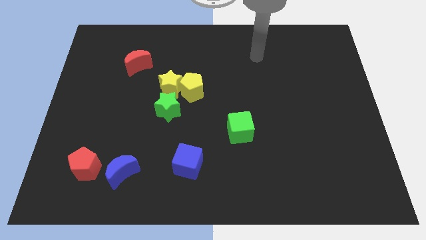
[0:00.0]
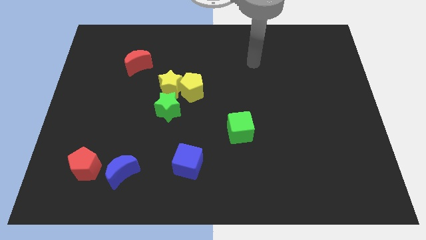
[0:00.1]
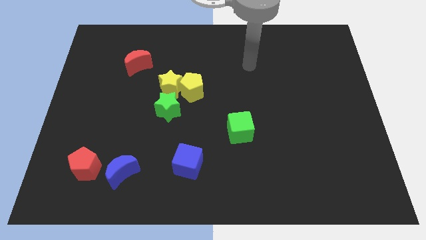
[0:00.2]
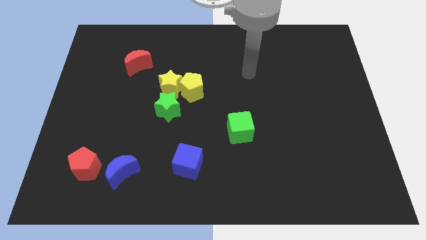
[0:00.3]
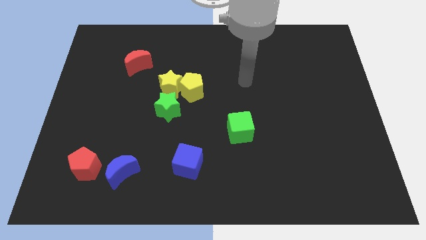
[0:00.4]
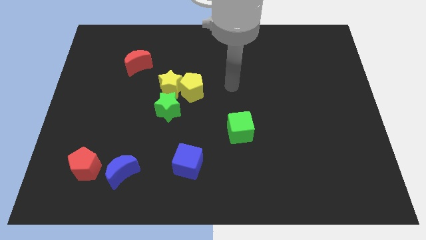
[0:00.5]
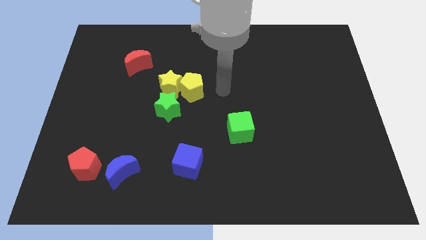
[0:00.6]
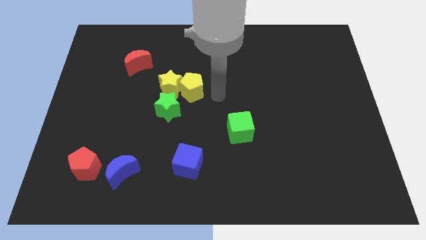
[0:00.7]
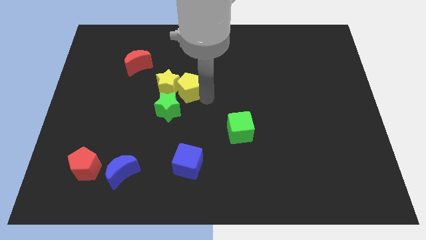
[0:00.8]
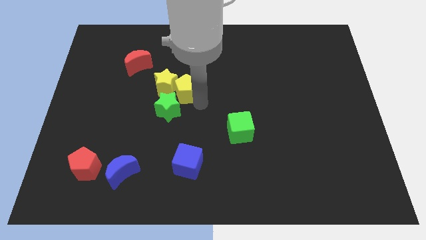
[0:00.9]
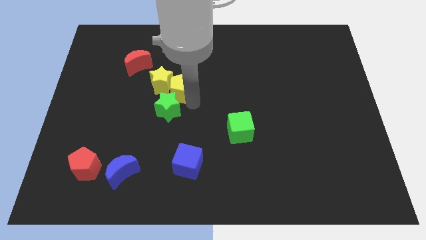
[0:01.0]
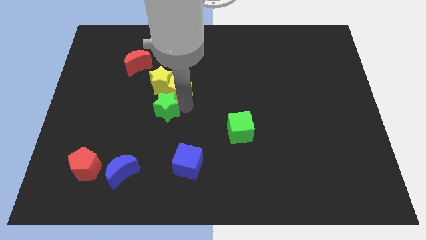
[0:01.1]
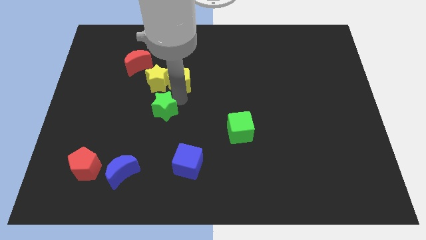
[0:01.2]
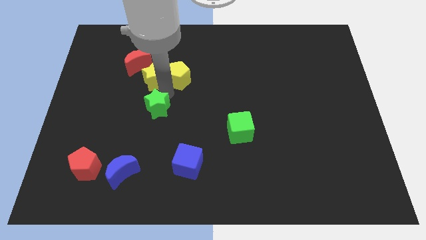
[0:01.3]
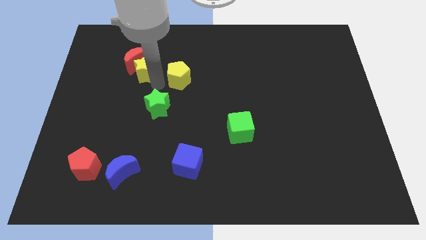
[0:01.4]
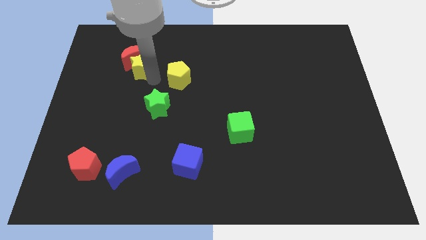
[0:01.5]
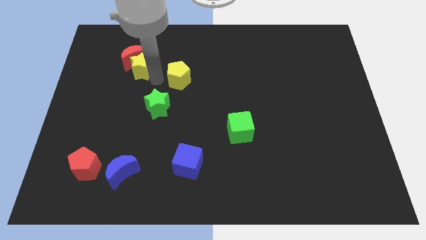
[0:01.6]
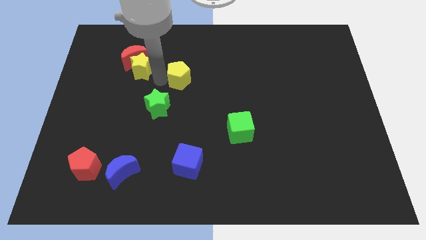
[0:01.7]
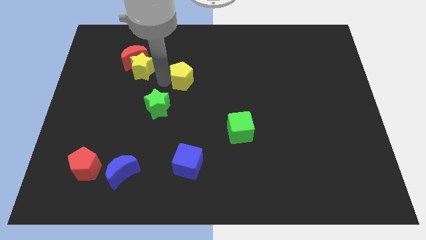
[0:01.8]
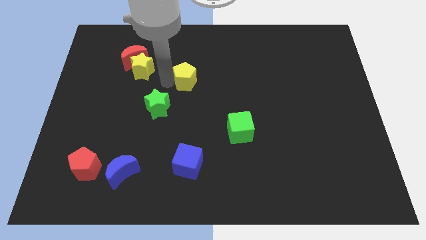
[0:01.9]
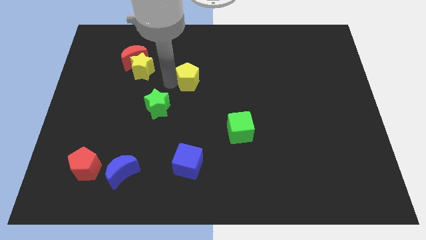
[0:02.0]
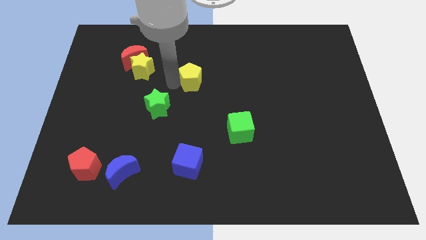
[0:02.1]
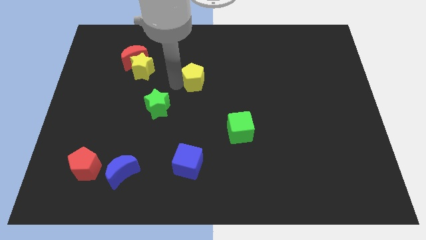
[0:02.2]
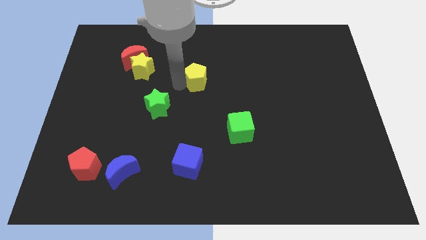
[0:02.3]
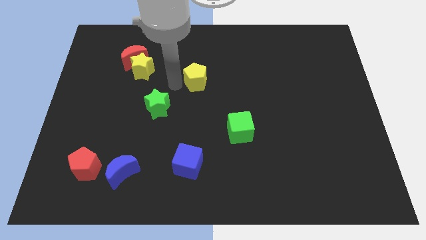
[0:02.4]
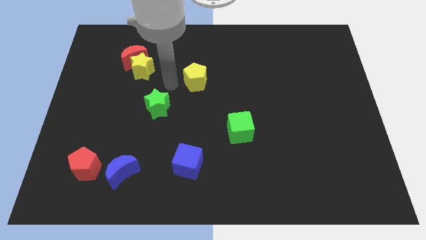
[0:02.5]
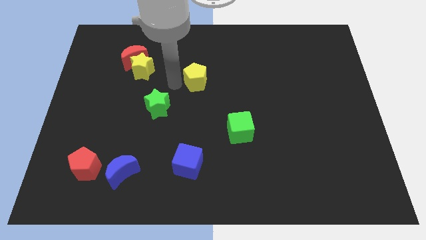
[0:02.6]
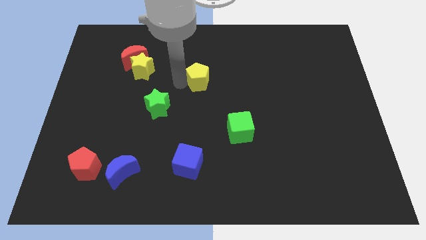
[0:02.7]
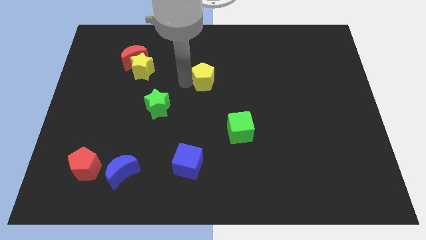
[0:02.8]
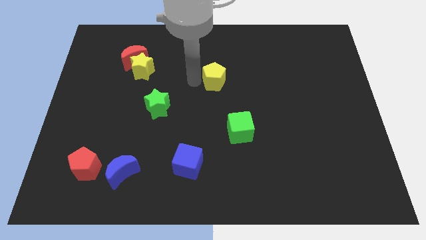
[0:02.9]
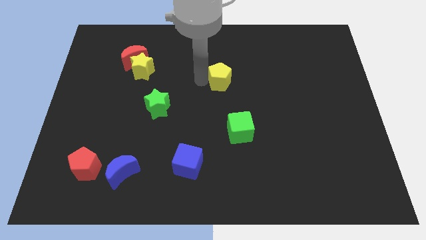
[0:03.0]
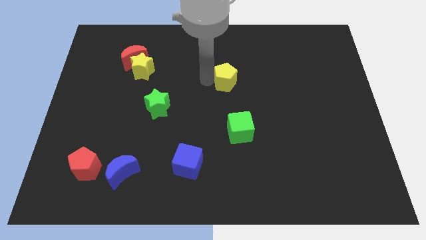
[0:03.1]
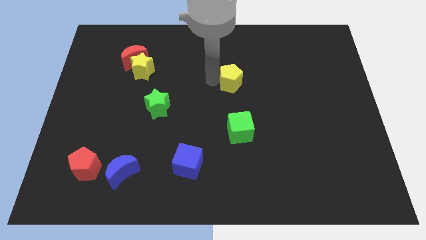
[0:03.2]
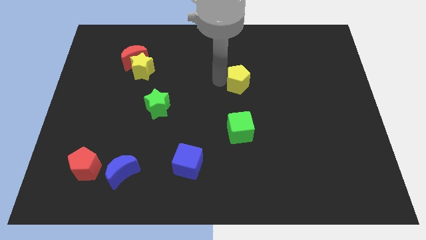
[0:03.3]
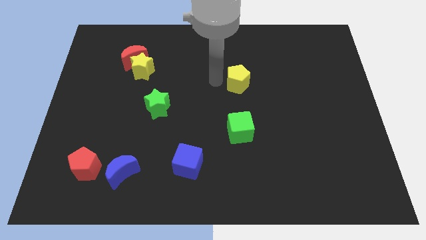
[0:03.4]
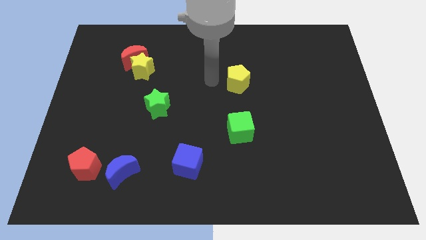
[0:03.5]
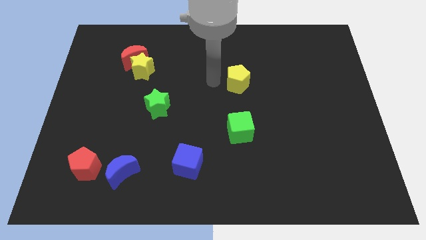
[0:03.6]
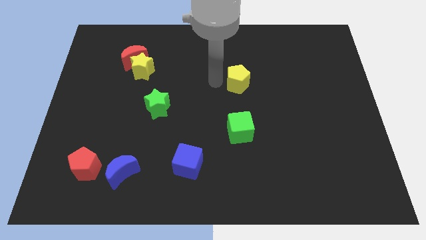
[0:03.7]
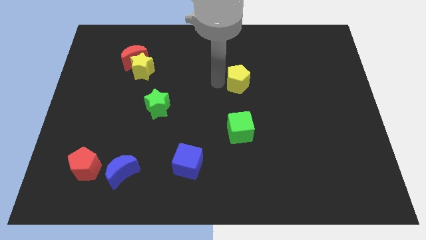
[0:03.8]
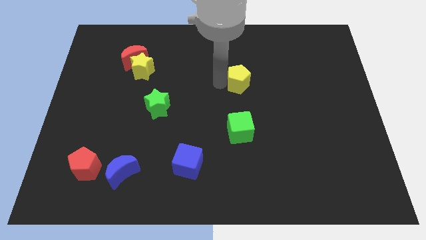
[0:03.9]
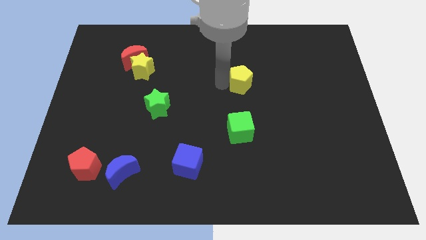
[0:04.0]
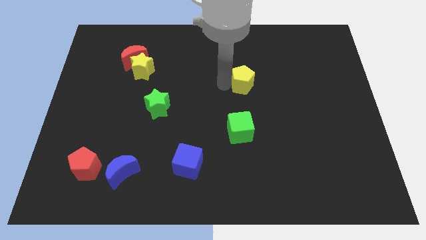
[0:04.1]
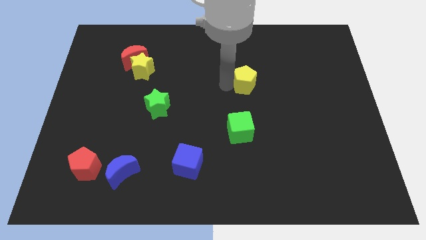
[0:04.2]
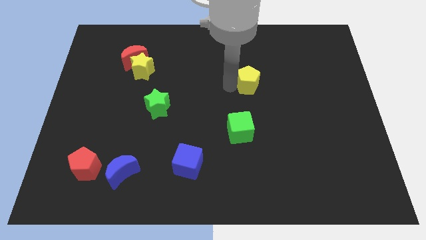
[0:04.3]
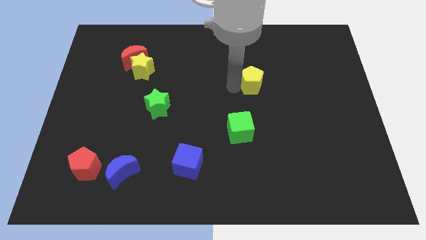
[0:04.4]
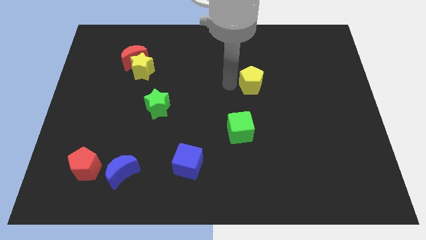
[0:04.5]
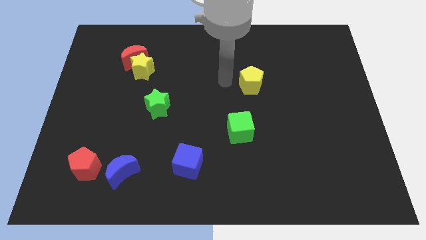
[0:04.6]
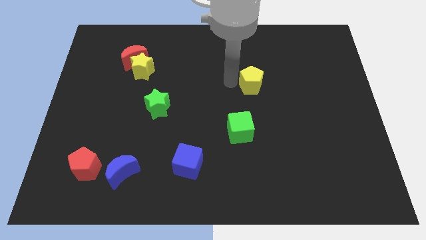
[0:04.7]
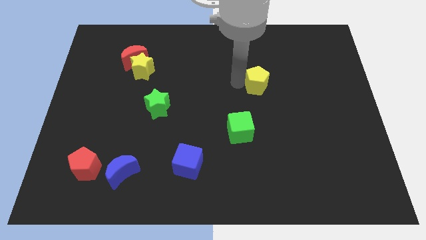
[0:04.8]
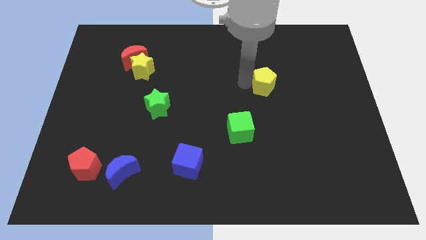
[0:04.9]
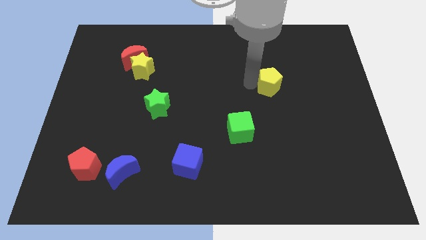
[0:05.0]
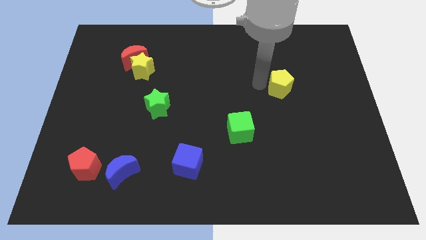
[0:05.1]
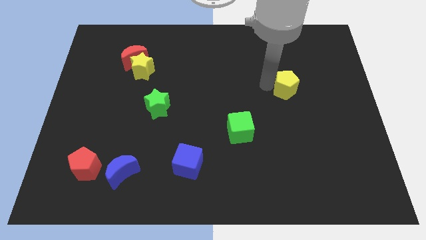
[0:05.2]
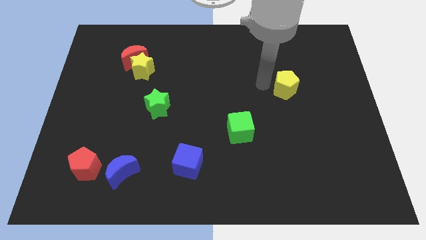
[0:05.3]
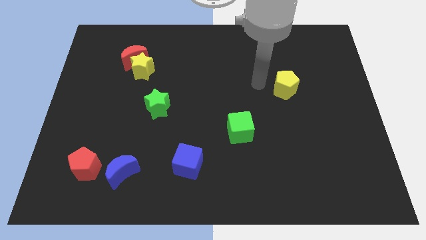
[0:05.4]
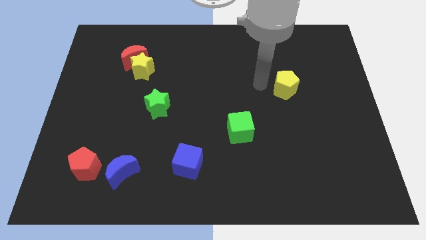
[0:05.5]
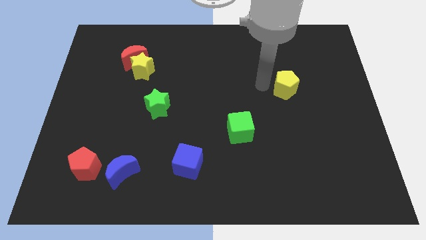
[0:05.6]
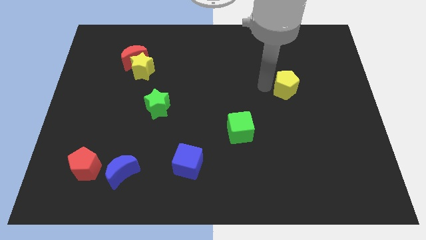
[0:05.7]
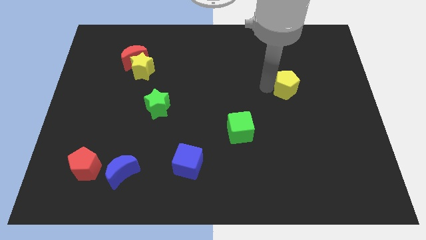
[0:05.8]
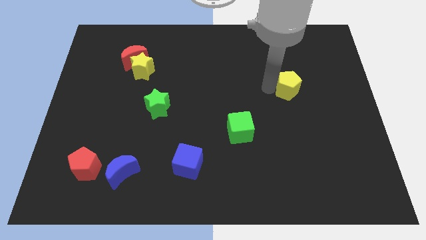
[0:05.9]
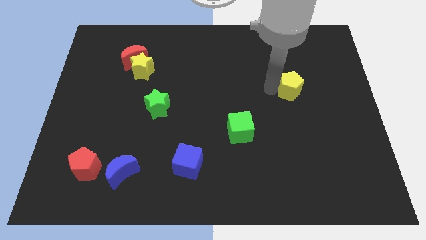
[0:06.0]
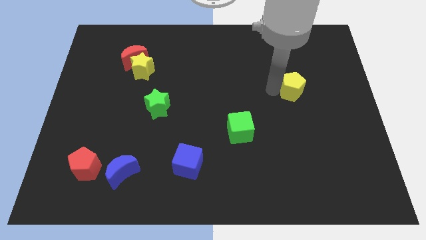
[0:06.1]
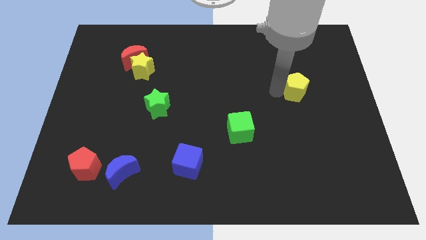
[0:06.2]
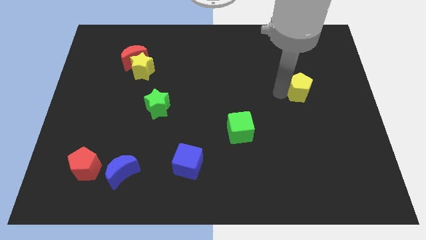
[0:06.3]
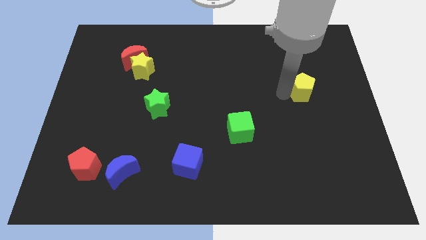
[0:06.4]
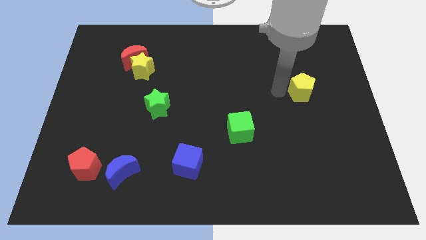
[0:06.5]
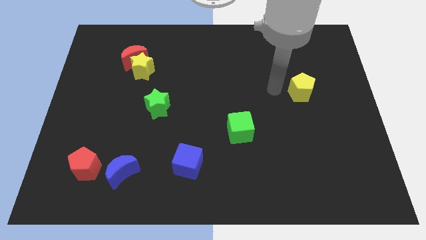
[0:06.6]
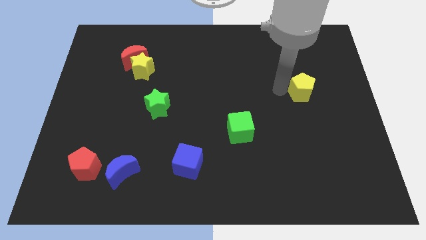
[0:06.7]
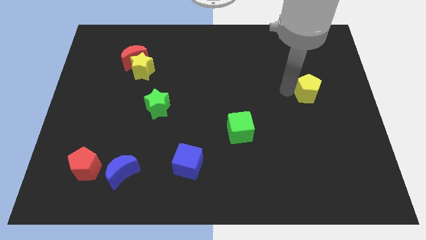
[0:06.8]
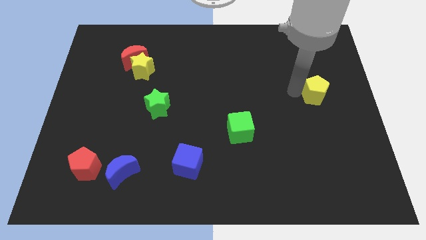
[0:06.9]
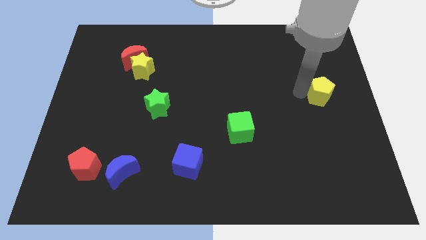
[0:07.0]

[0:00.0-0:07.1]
move the yellow pentagon to the center right

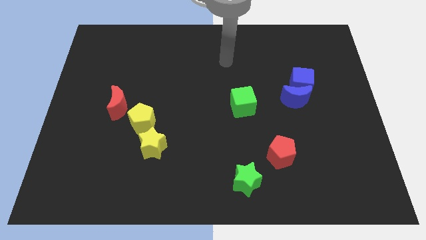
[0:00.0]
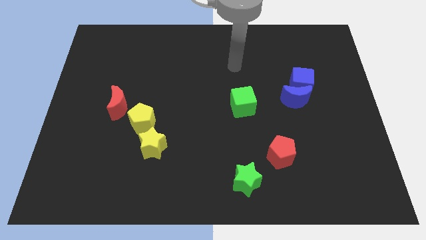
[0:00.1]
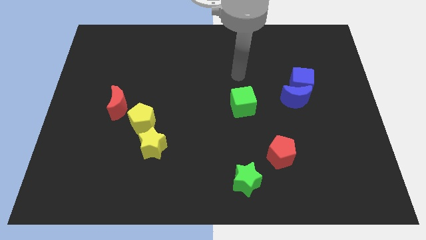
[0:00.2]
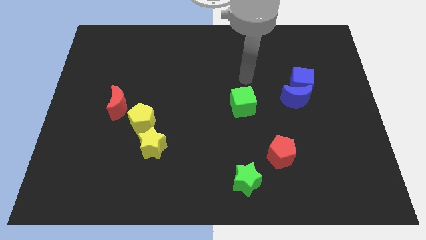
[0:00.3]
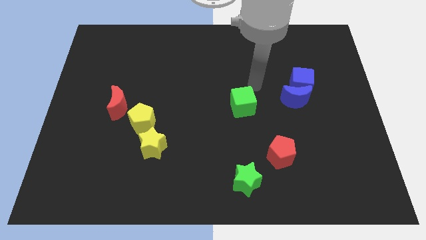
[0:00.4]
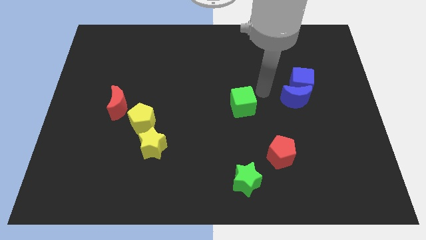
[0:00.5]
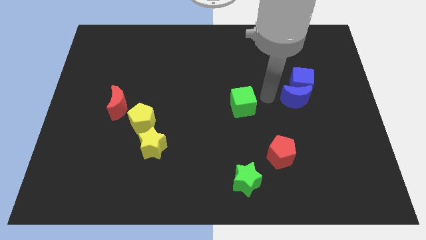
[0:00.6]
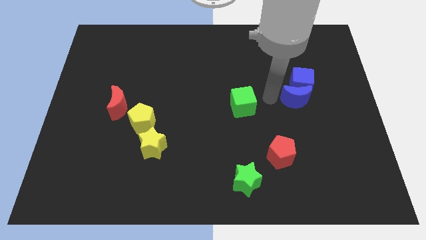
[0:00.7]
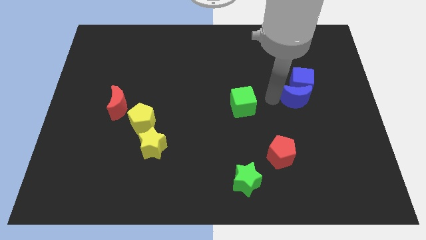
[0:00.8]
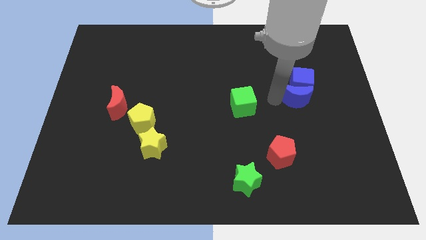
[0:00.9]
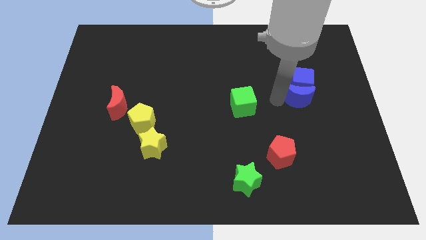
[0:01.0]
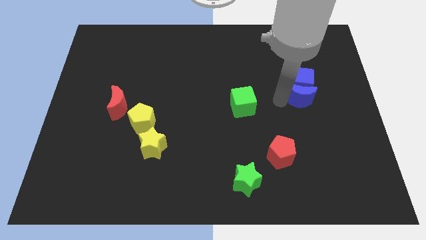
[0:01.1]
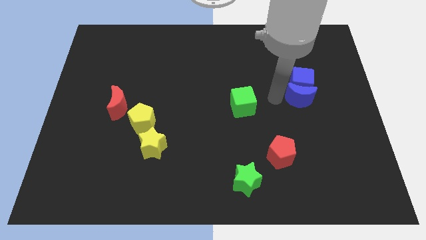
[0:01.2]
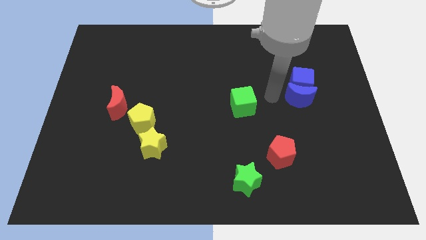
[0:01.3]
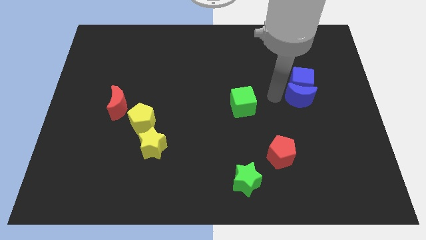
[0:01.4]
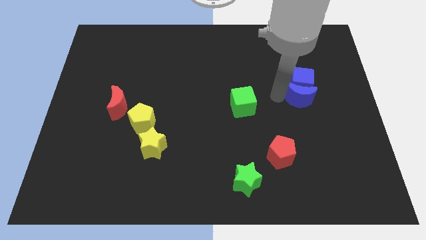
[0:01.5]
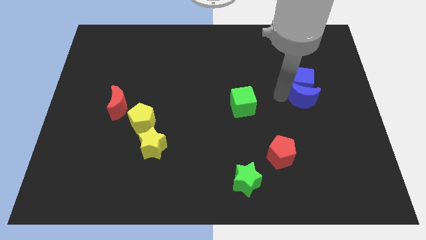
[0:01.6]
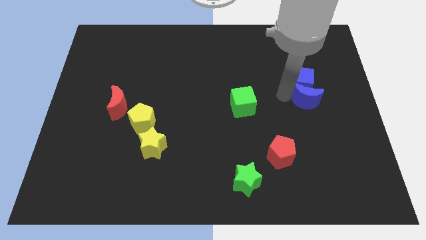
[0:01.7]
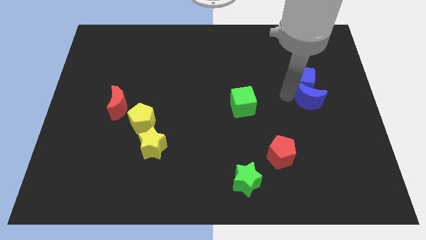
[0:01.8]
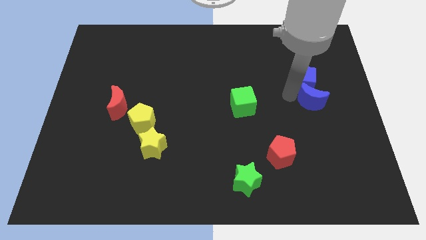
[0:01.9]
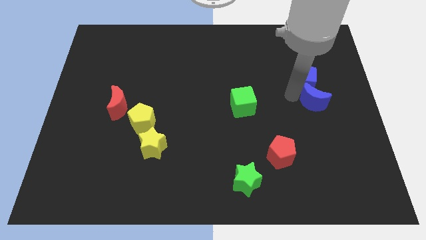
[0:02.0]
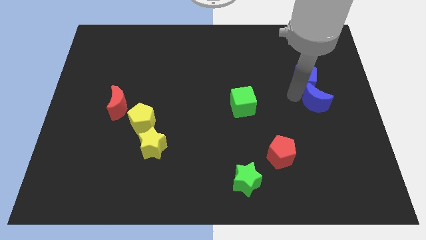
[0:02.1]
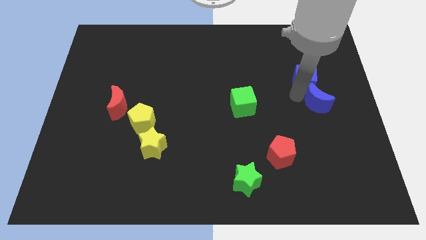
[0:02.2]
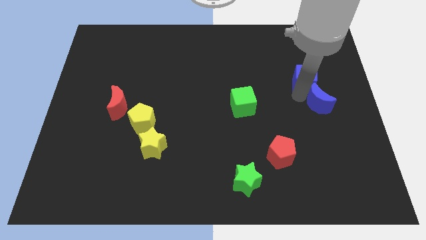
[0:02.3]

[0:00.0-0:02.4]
slide the blue moon to the center right
